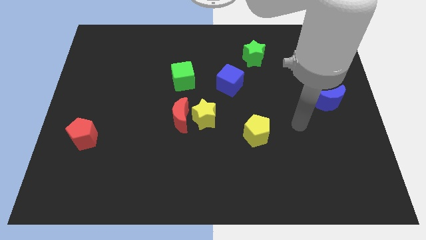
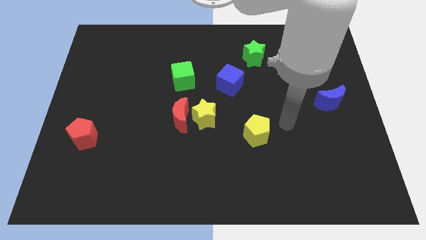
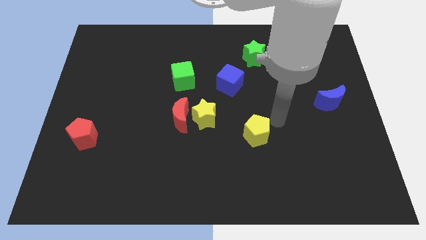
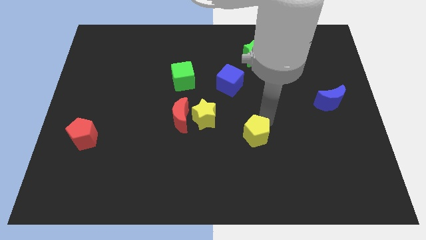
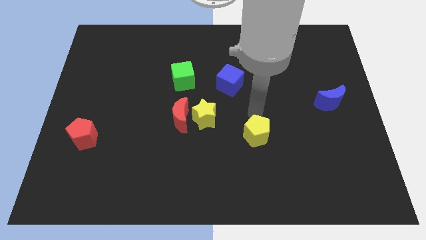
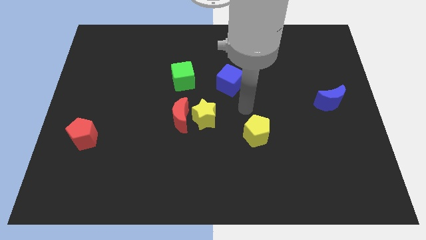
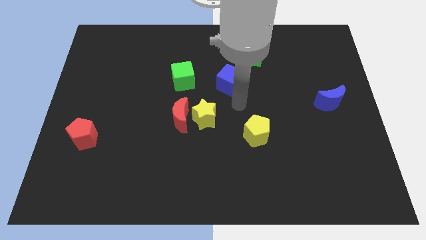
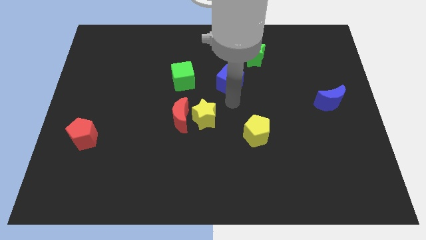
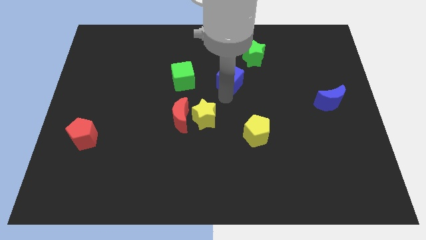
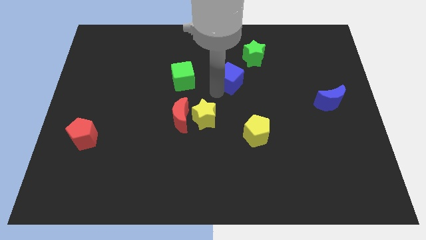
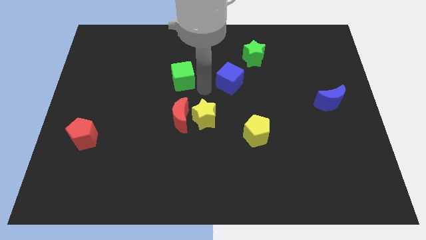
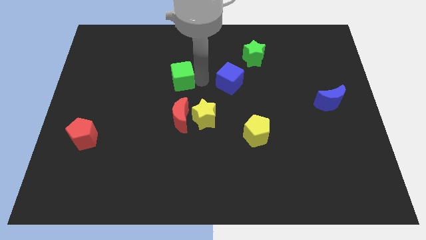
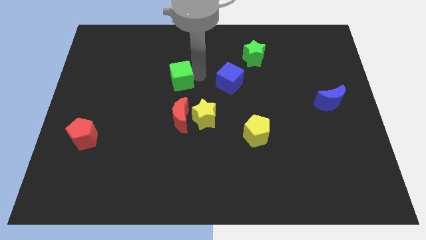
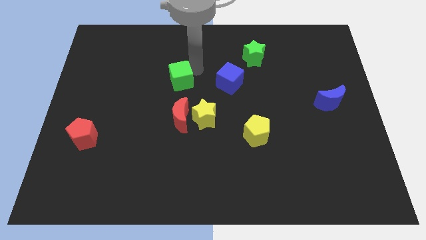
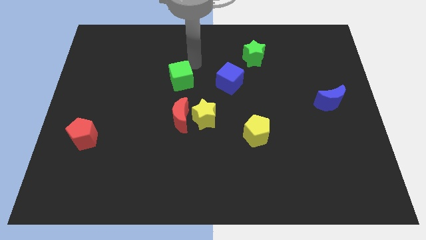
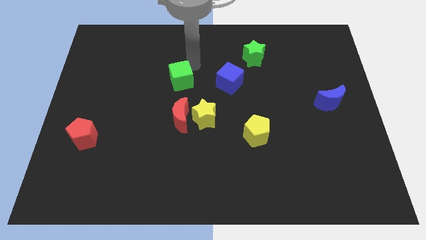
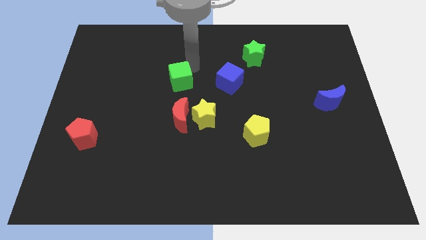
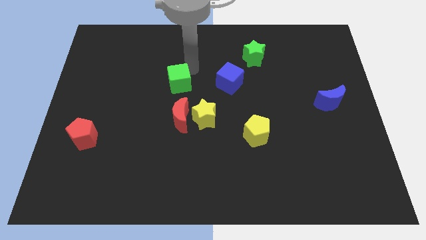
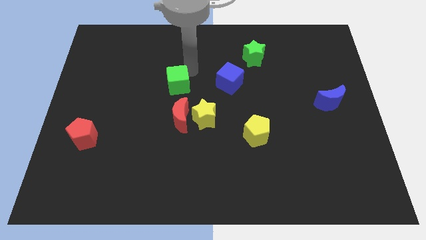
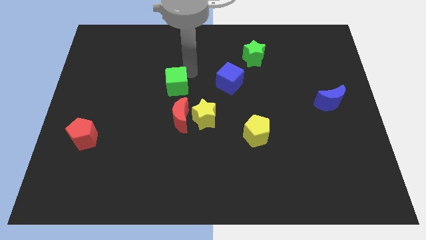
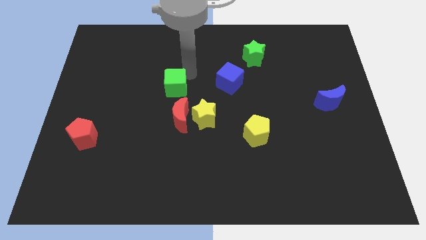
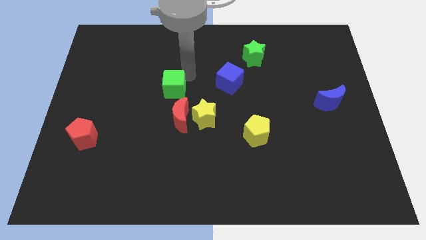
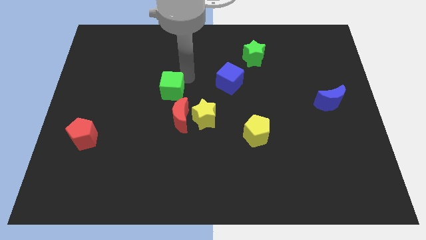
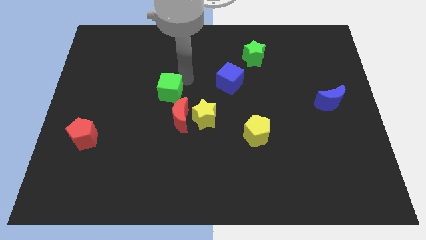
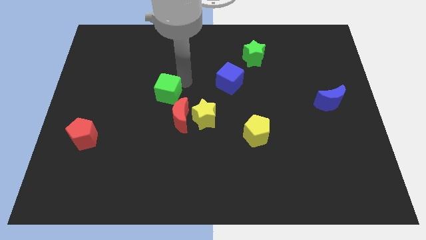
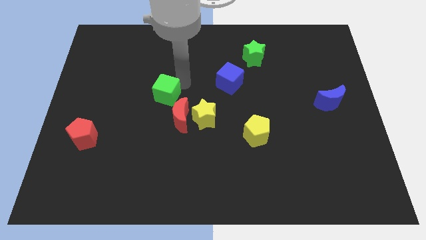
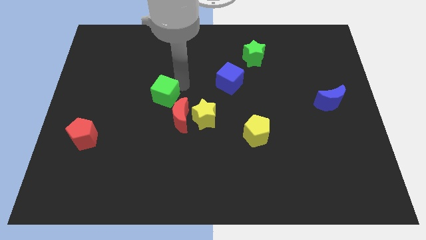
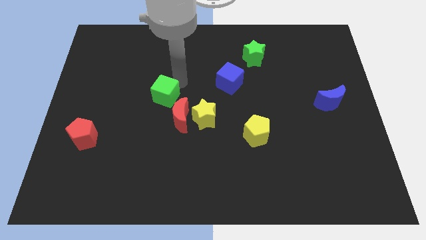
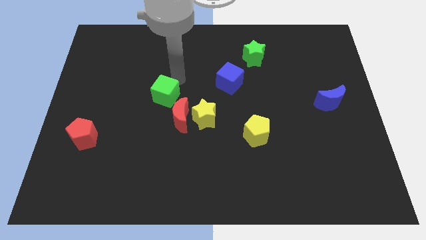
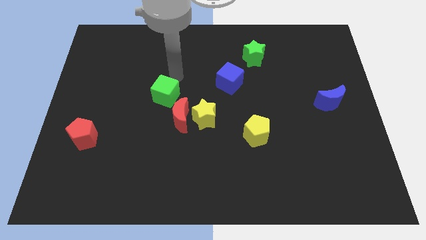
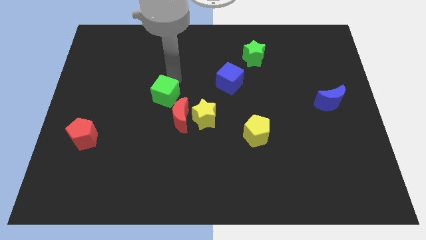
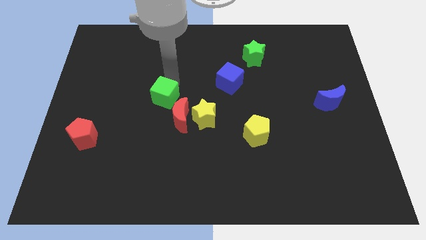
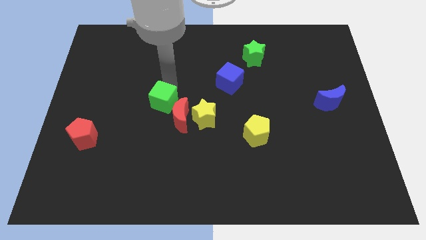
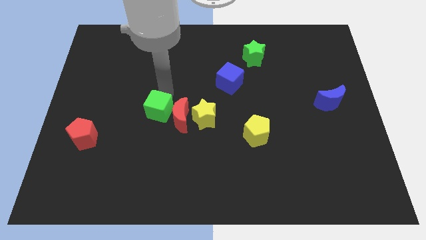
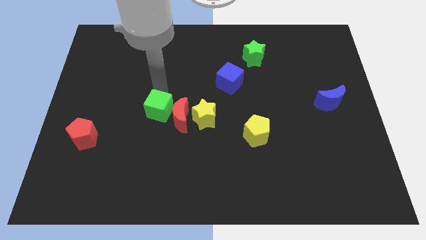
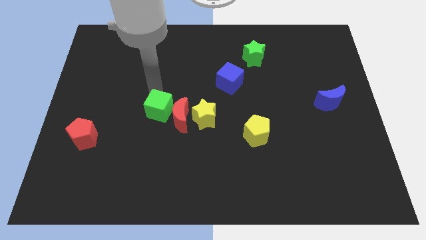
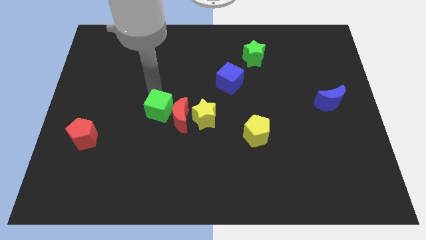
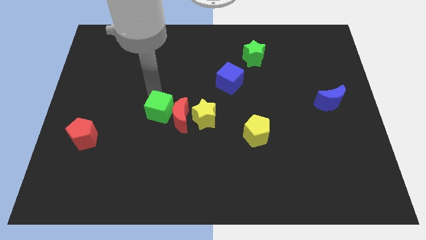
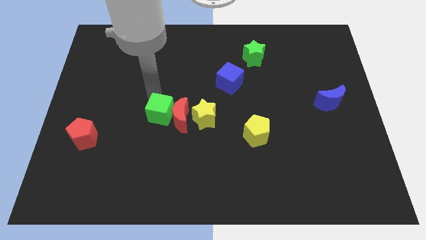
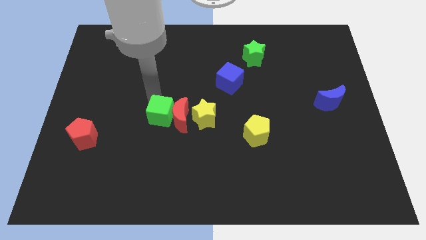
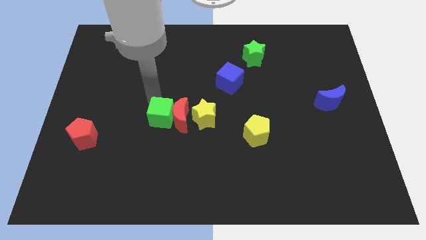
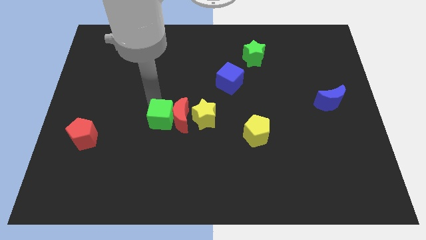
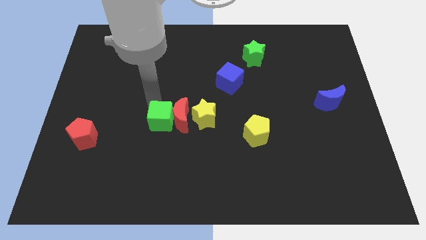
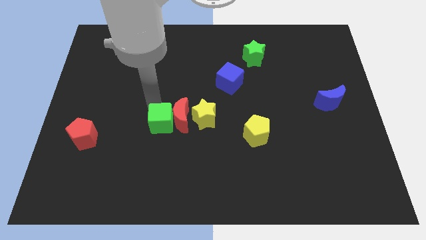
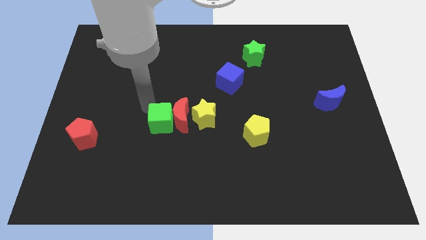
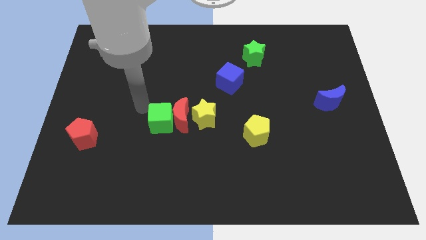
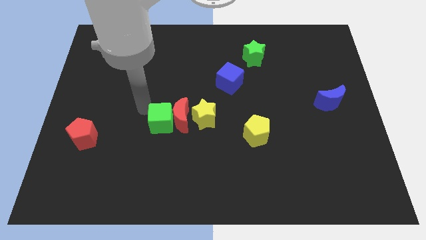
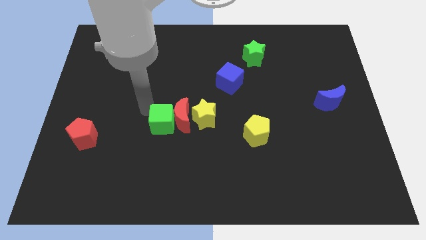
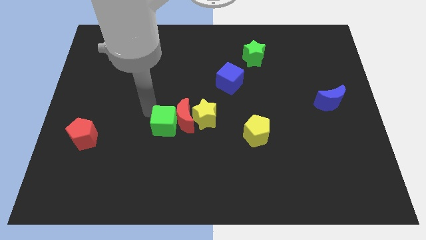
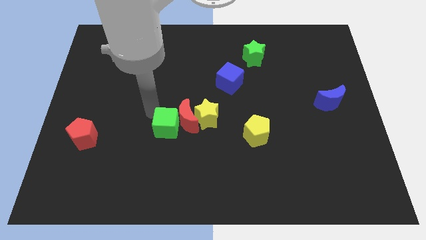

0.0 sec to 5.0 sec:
slide the green cube to the bottom left side of the yellow star

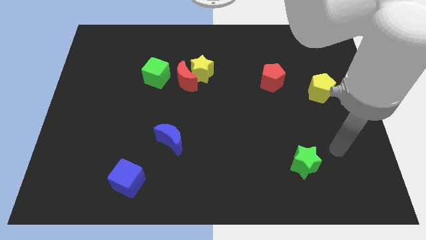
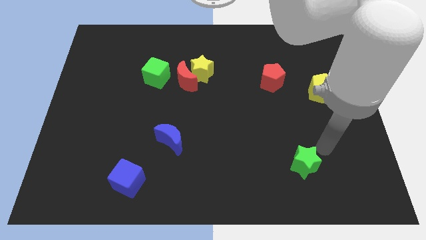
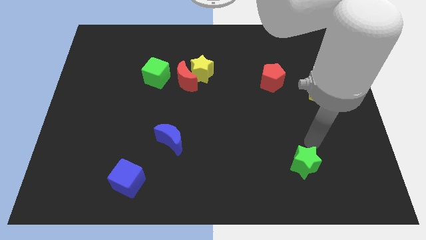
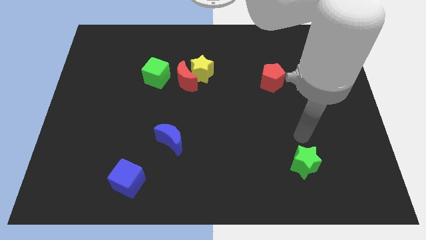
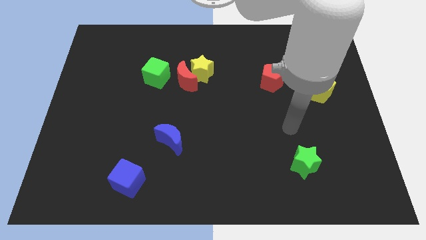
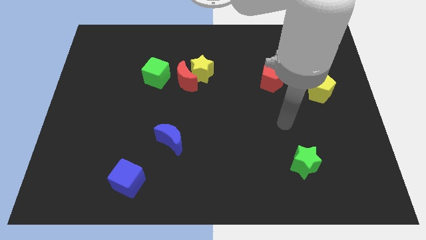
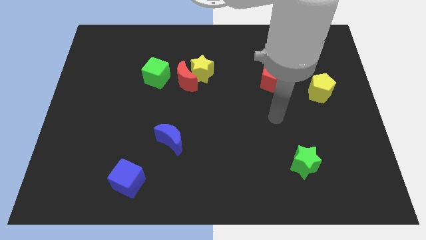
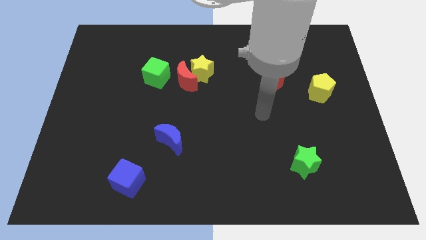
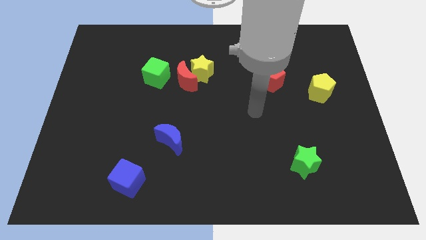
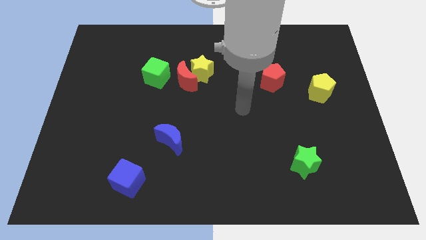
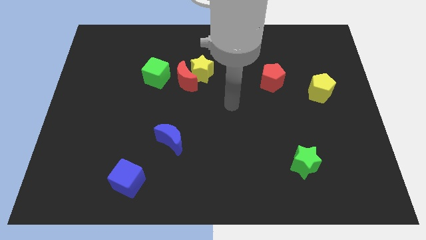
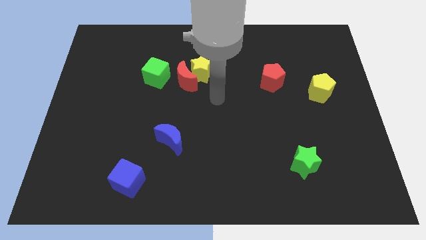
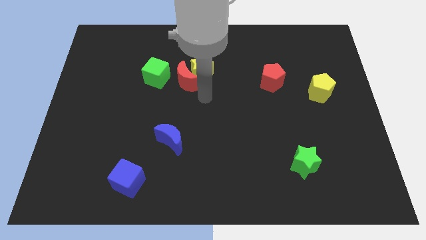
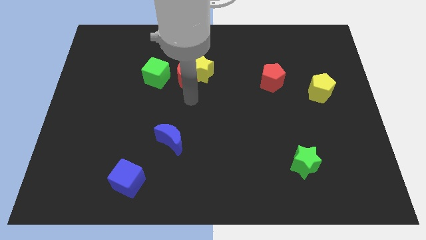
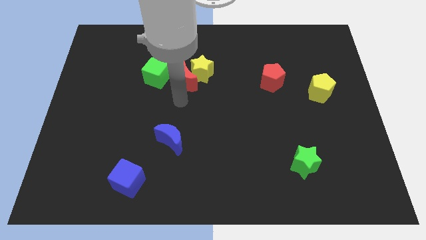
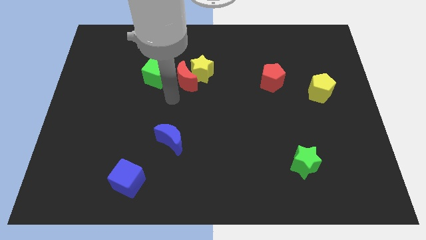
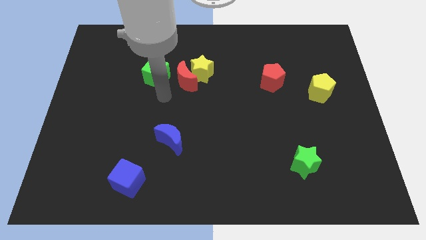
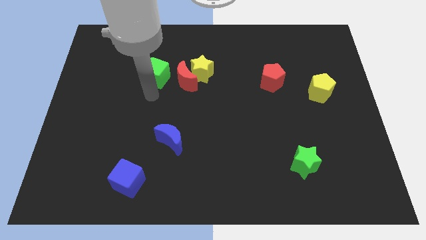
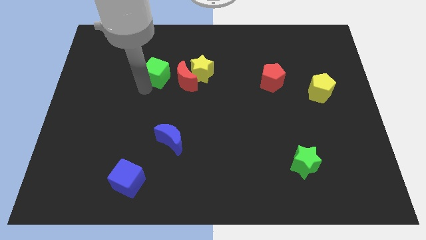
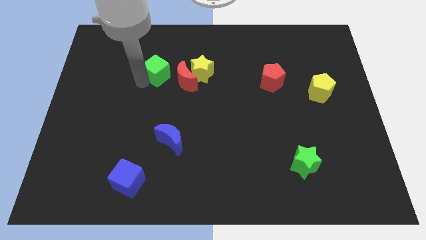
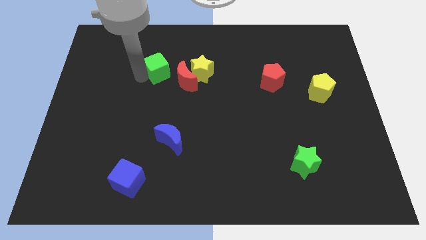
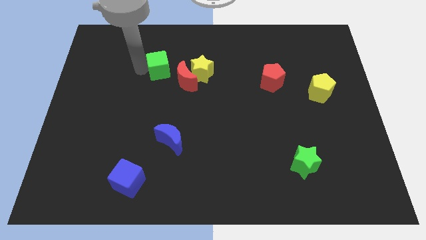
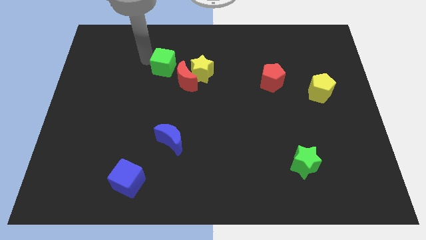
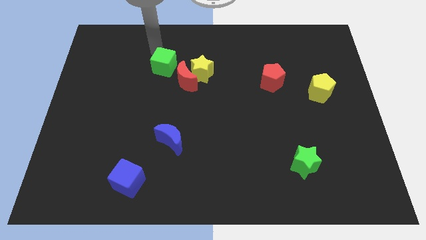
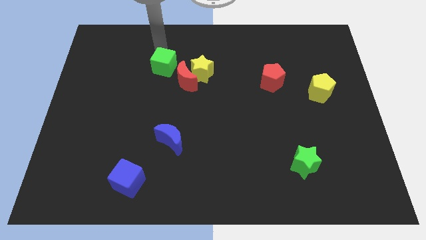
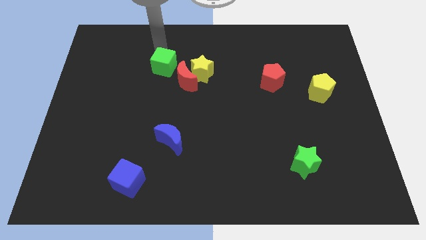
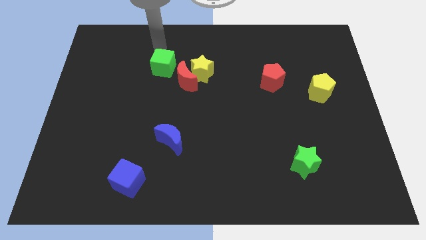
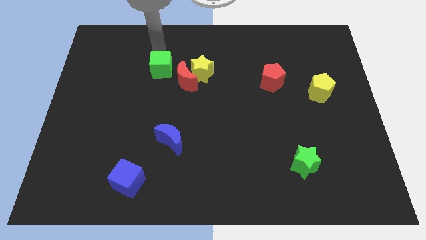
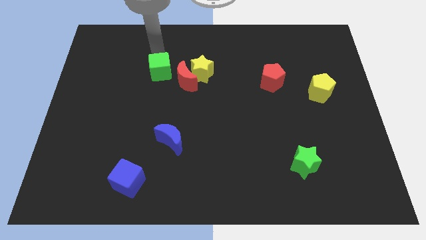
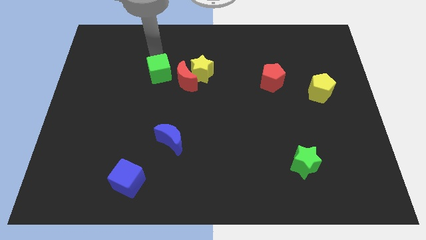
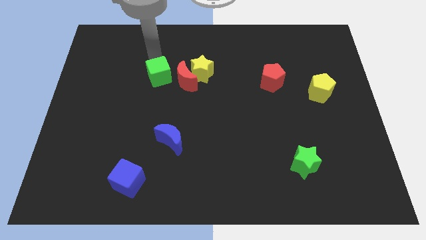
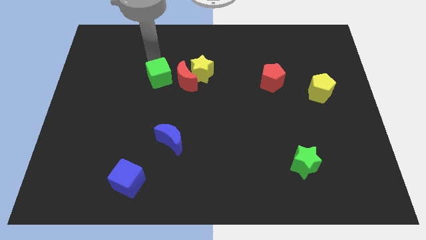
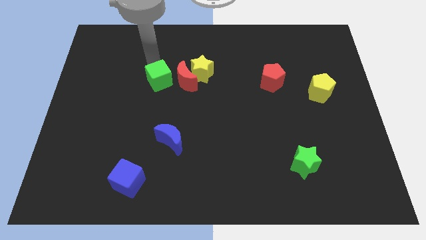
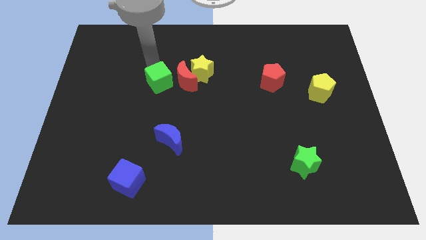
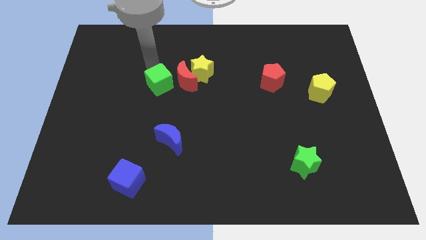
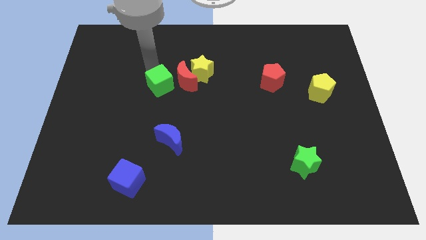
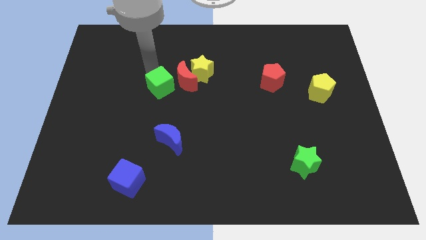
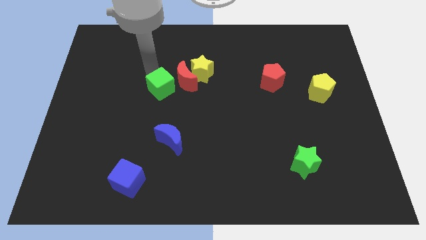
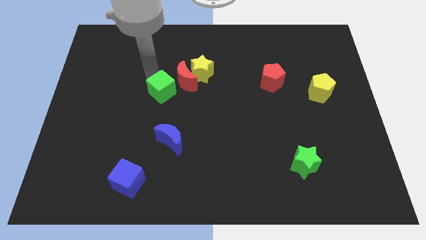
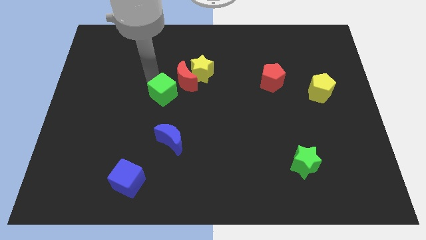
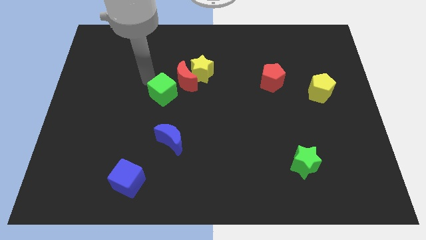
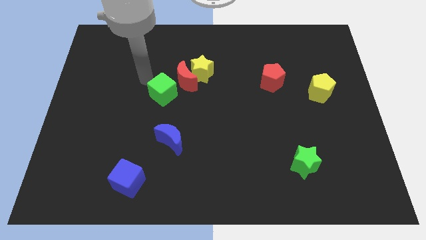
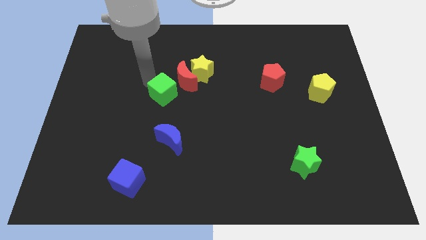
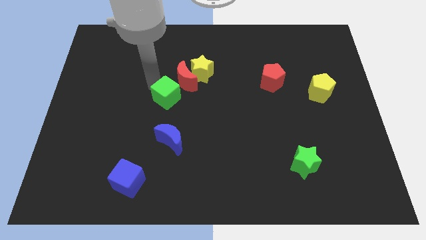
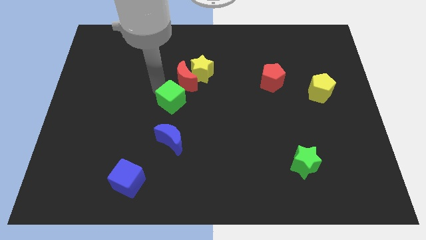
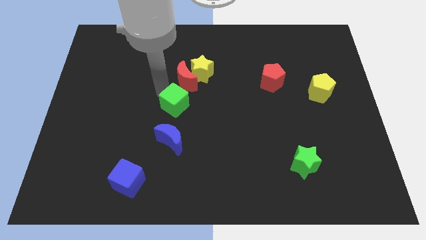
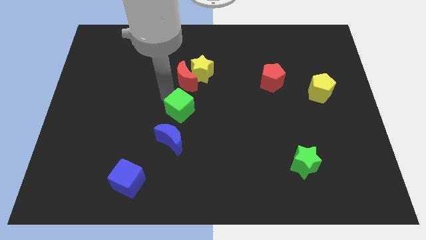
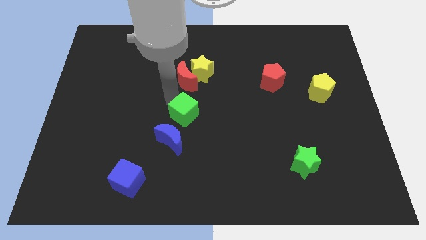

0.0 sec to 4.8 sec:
push the green cube to the top right side of the blue moon
